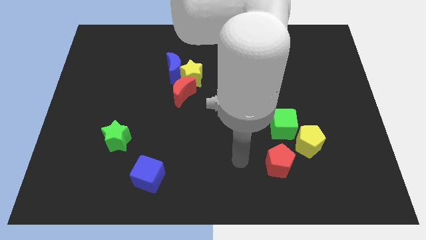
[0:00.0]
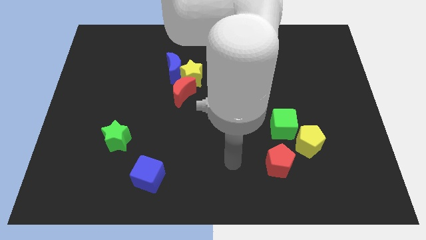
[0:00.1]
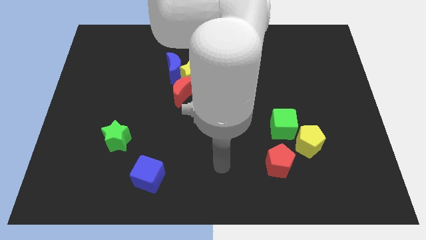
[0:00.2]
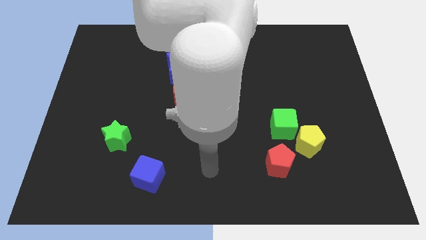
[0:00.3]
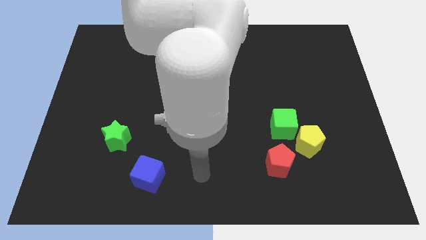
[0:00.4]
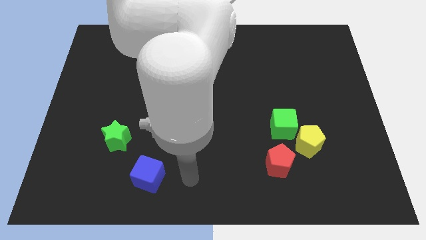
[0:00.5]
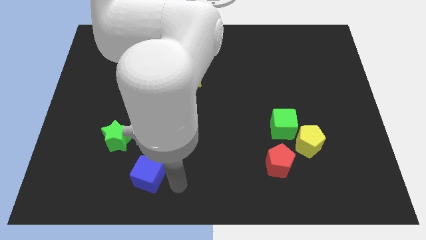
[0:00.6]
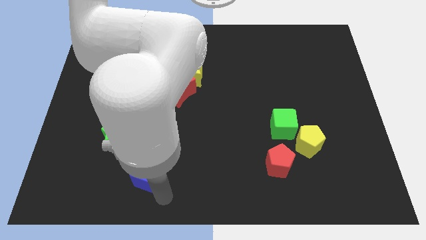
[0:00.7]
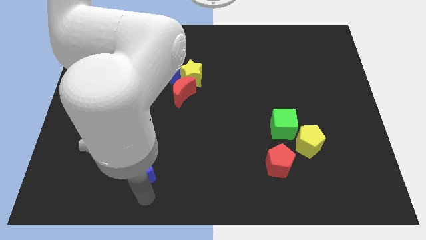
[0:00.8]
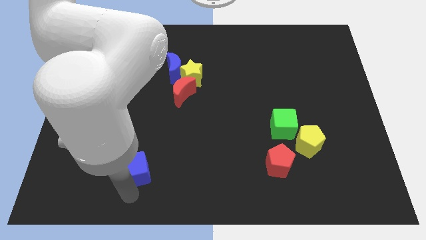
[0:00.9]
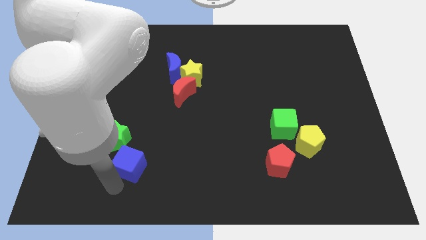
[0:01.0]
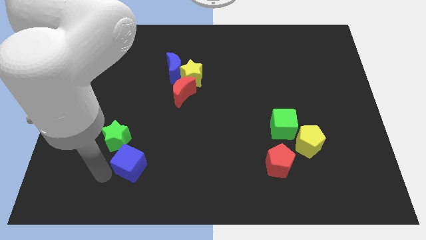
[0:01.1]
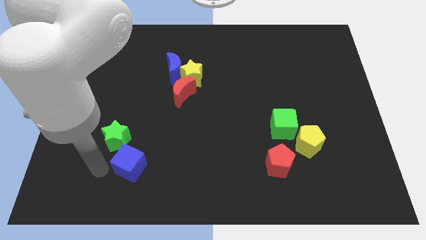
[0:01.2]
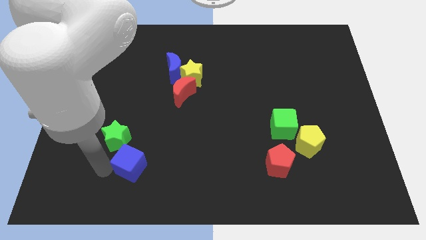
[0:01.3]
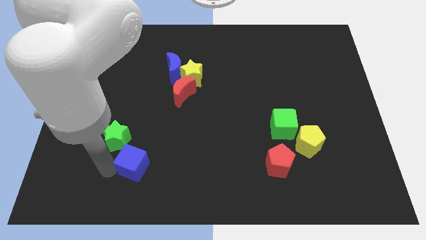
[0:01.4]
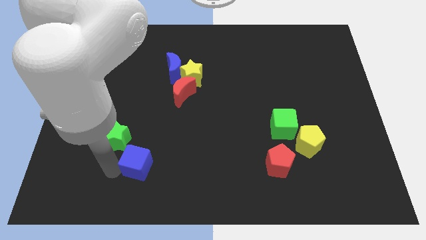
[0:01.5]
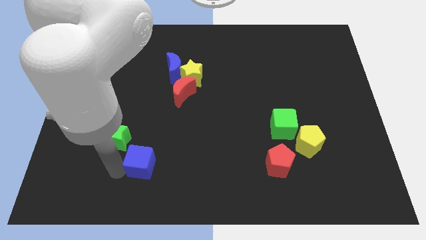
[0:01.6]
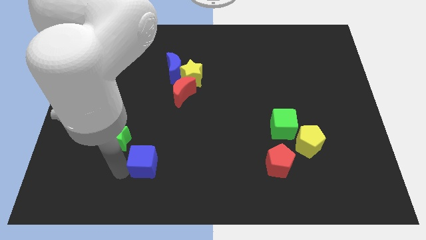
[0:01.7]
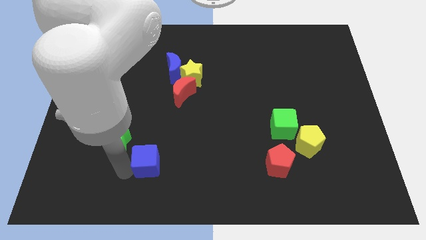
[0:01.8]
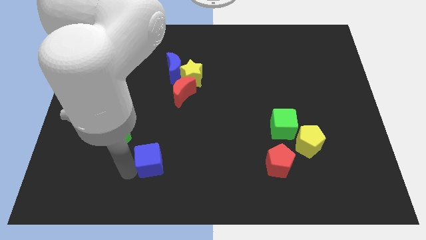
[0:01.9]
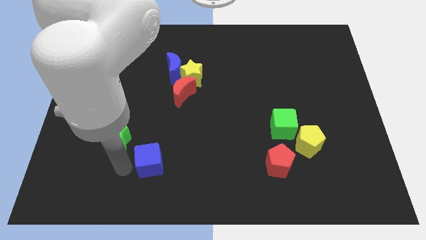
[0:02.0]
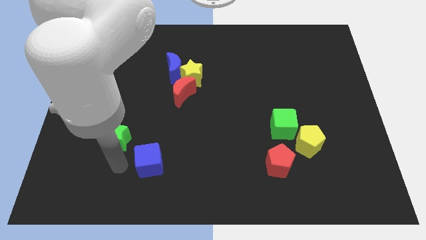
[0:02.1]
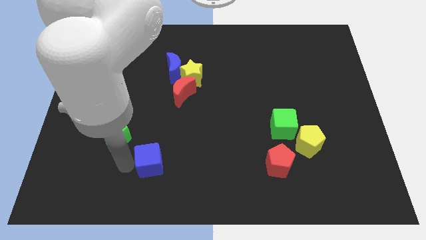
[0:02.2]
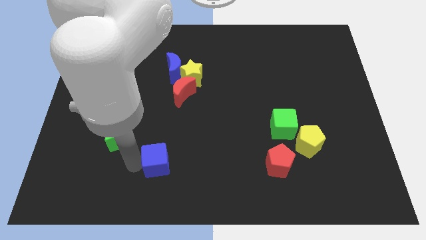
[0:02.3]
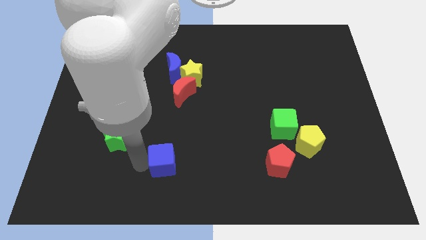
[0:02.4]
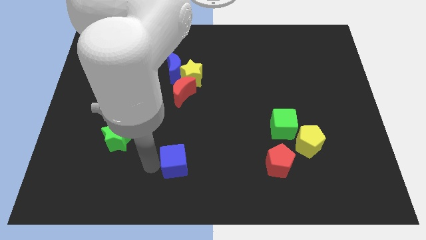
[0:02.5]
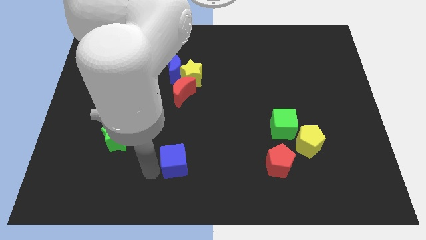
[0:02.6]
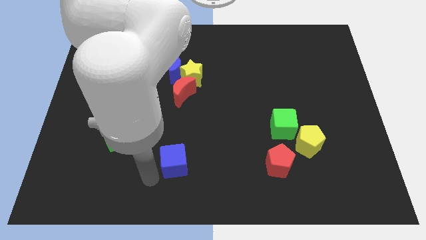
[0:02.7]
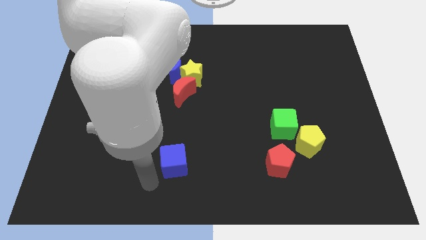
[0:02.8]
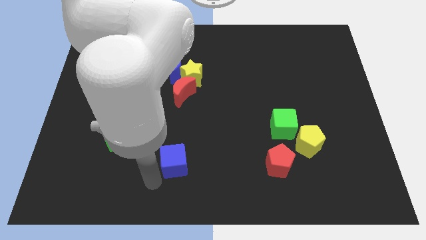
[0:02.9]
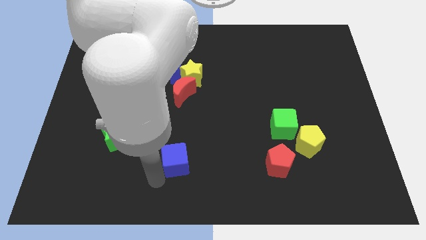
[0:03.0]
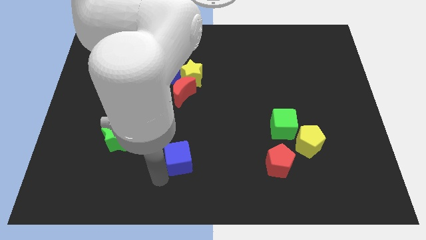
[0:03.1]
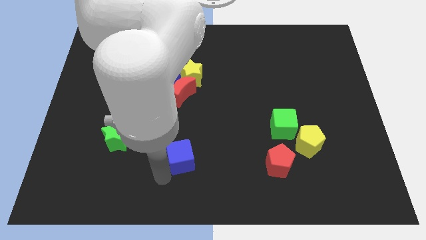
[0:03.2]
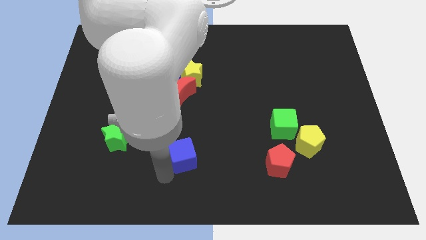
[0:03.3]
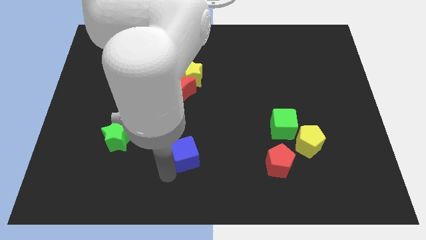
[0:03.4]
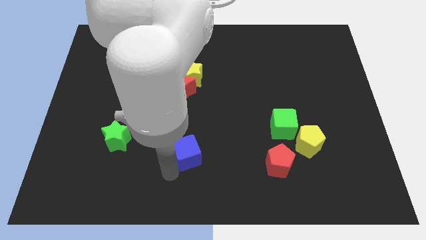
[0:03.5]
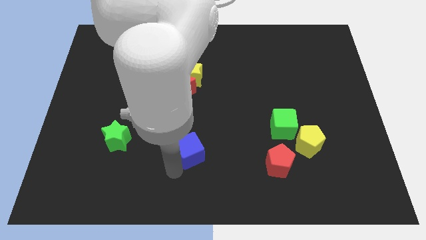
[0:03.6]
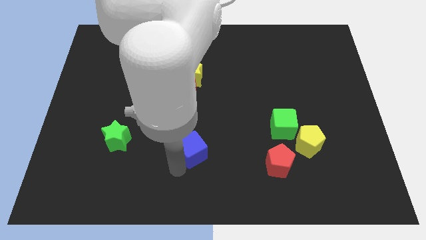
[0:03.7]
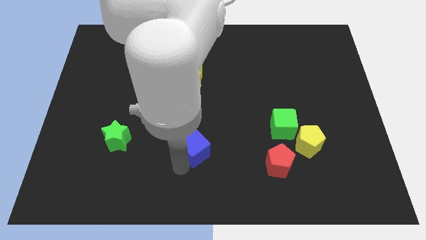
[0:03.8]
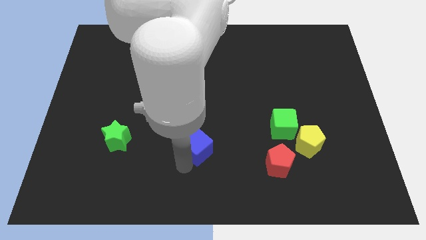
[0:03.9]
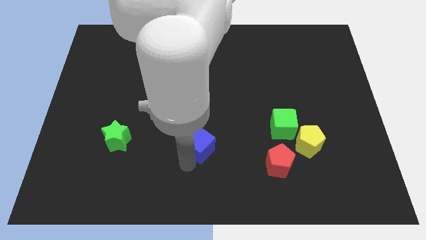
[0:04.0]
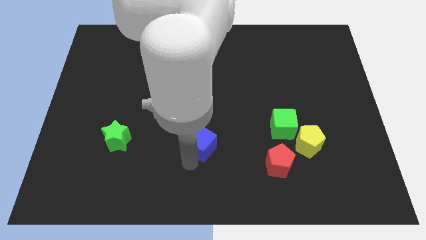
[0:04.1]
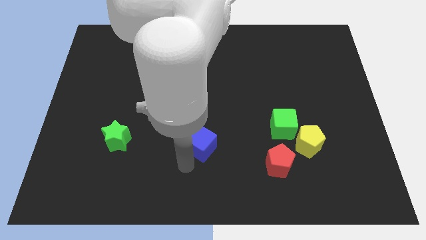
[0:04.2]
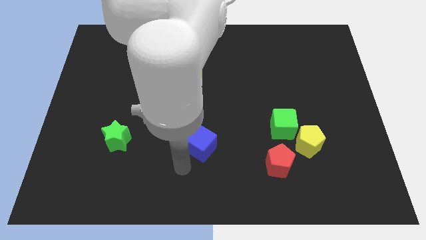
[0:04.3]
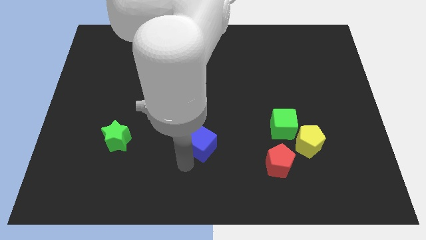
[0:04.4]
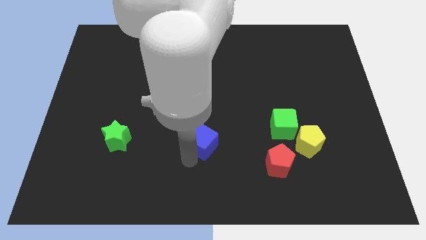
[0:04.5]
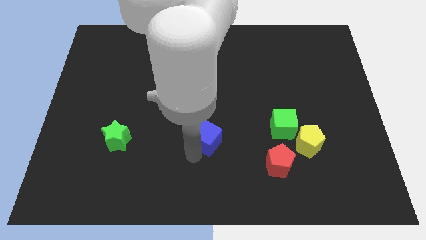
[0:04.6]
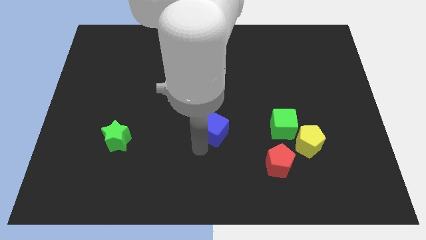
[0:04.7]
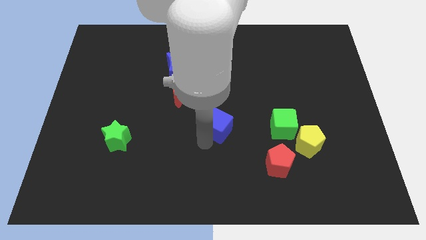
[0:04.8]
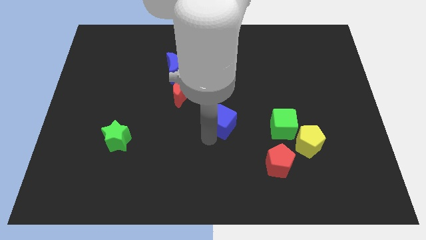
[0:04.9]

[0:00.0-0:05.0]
slide the blue cube upwards and to the right

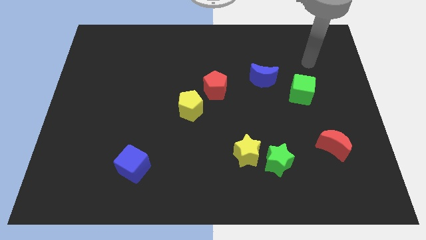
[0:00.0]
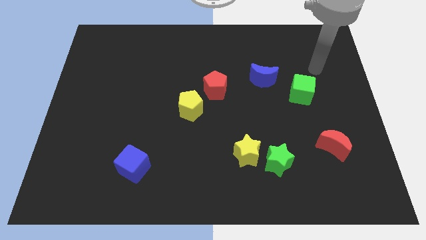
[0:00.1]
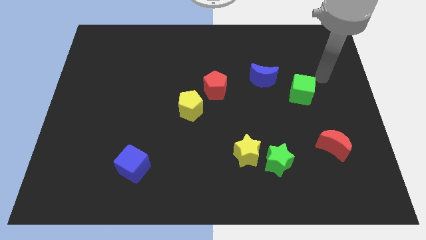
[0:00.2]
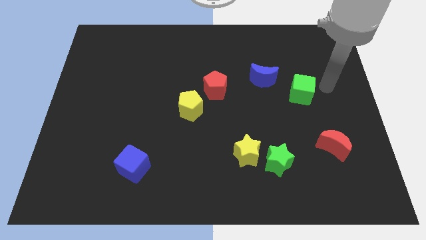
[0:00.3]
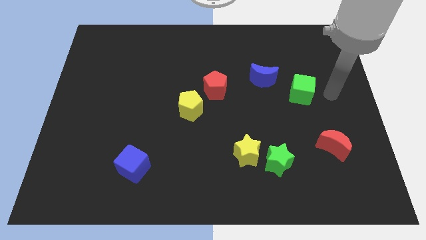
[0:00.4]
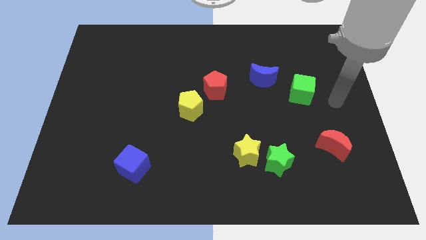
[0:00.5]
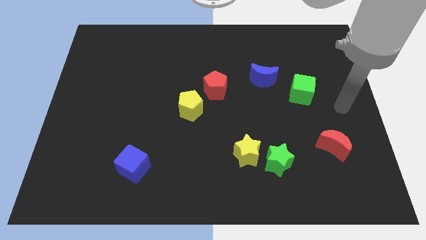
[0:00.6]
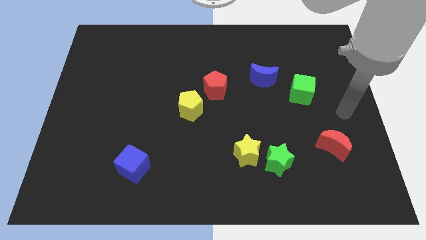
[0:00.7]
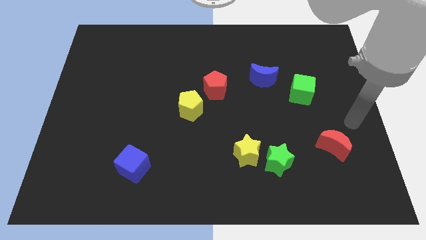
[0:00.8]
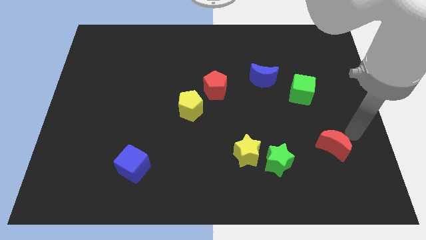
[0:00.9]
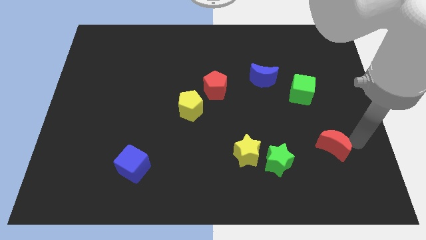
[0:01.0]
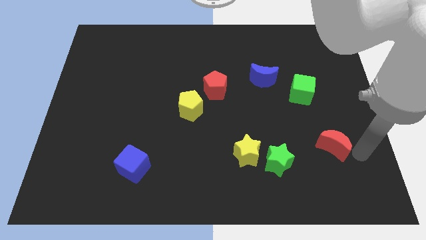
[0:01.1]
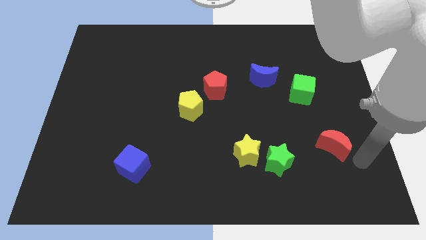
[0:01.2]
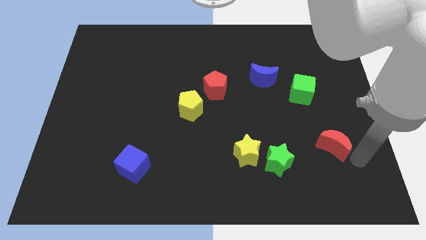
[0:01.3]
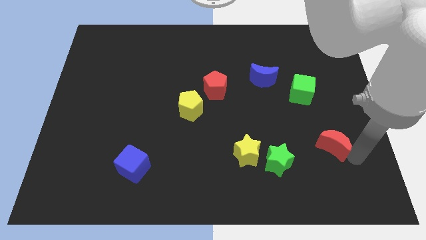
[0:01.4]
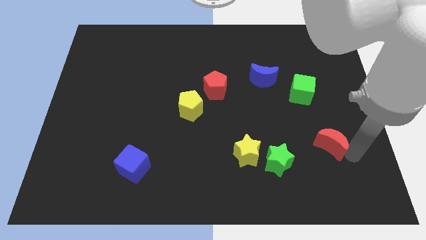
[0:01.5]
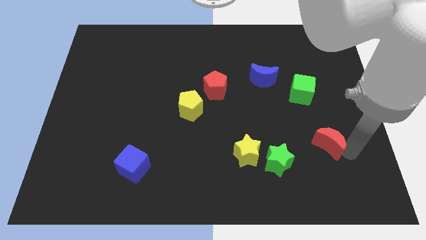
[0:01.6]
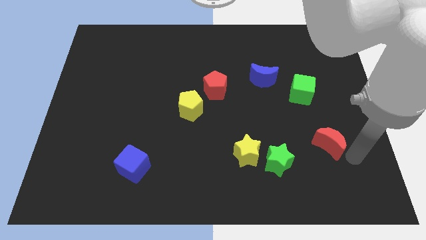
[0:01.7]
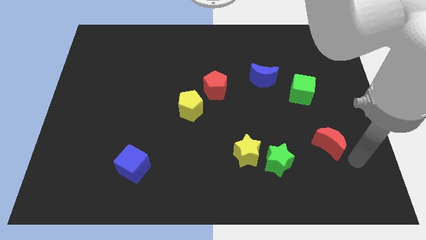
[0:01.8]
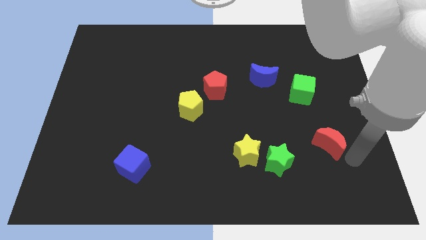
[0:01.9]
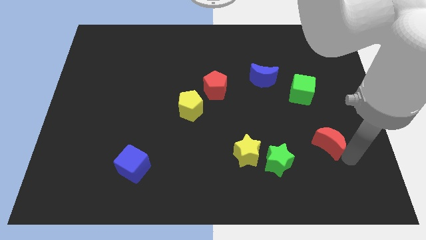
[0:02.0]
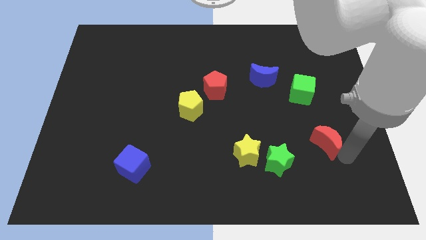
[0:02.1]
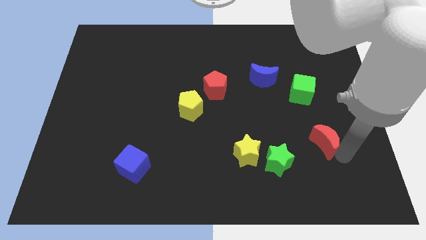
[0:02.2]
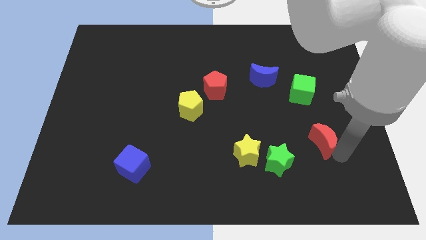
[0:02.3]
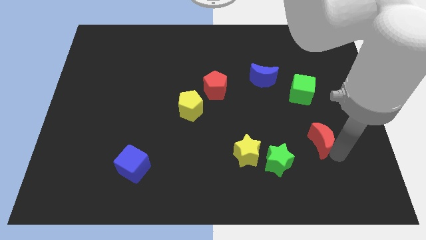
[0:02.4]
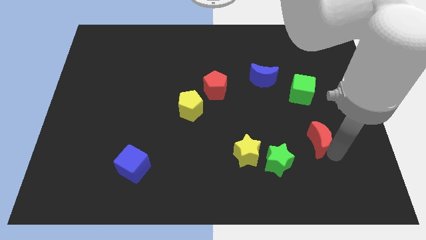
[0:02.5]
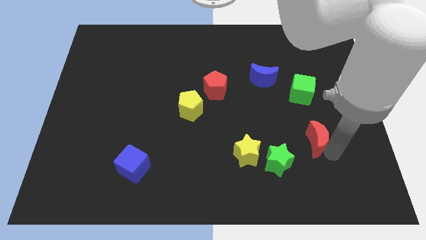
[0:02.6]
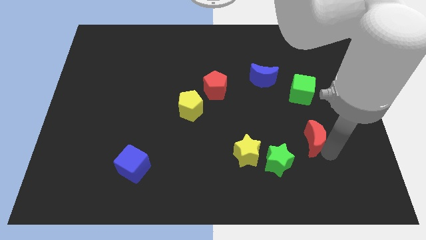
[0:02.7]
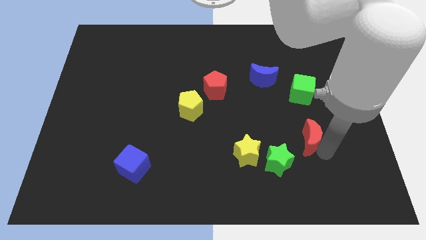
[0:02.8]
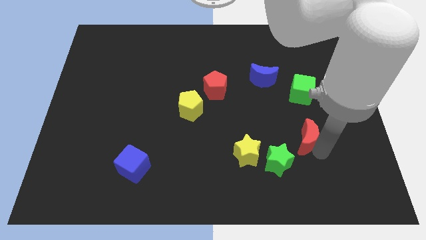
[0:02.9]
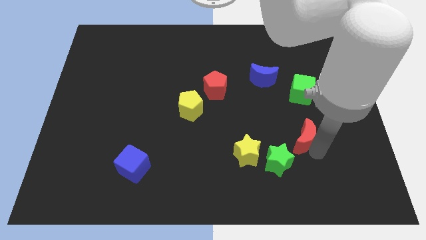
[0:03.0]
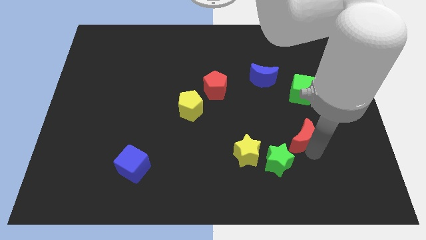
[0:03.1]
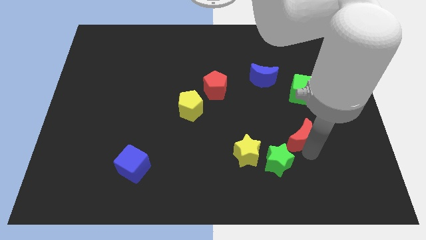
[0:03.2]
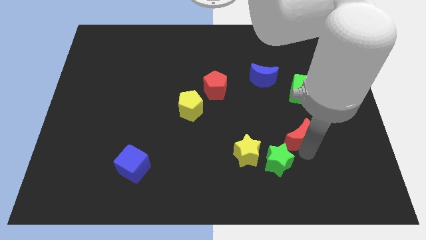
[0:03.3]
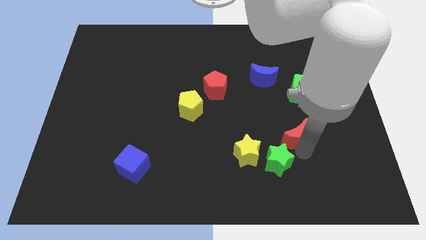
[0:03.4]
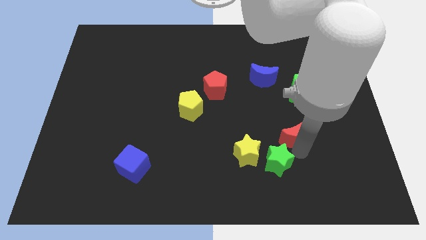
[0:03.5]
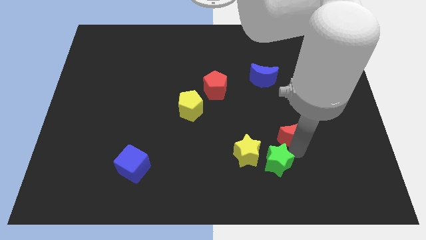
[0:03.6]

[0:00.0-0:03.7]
push the red moon a little up and to the left
